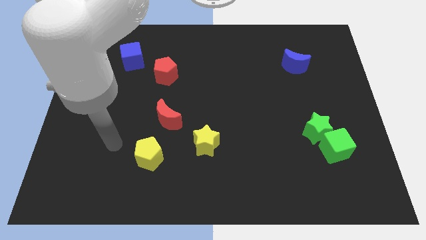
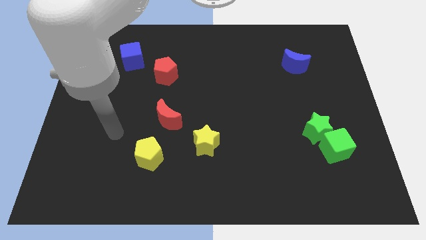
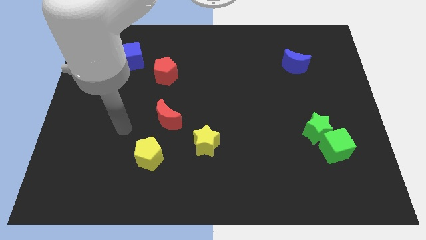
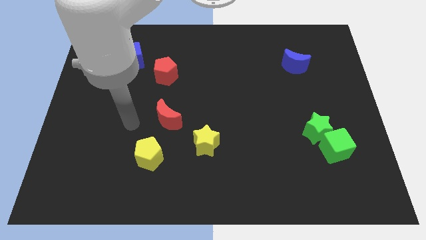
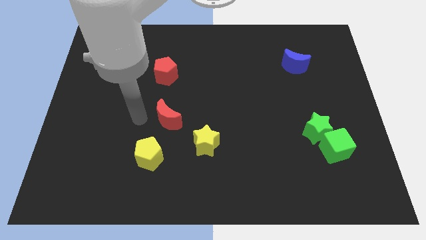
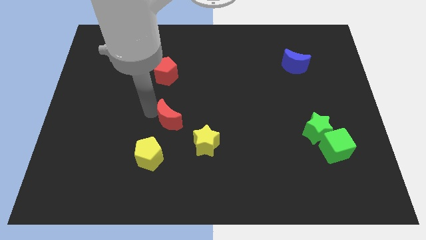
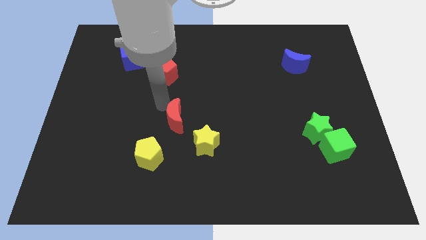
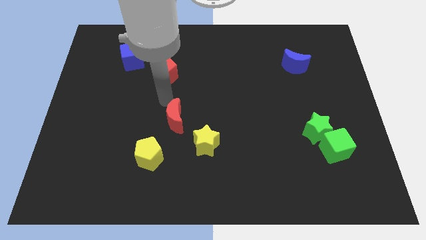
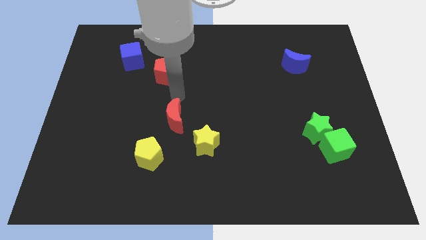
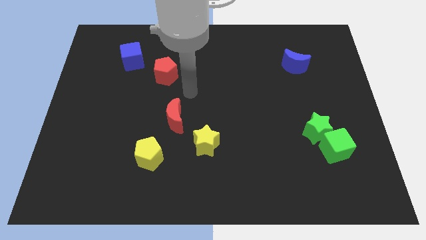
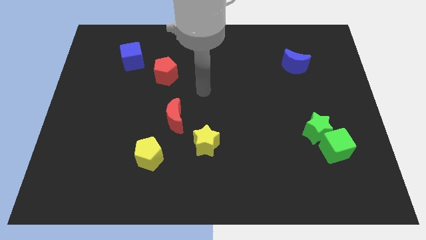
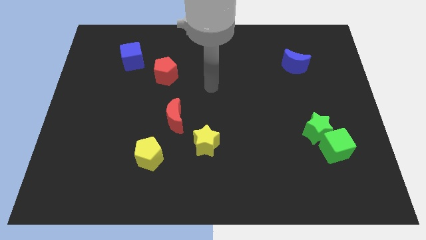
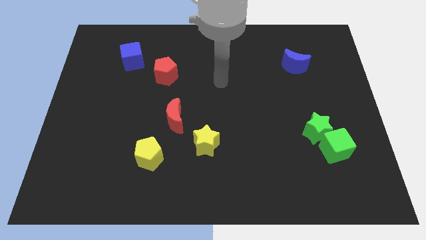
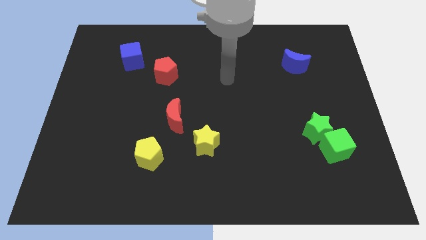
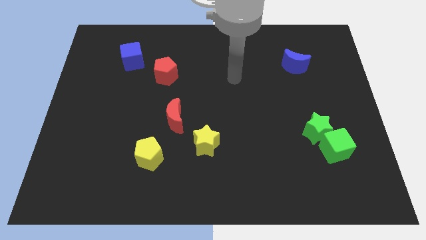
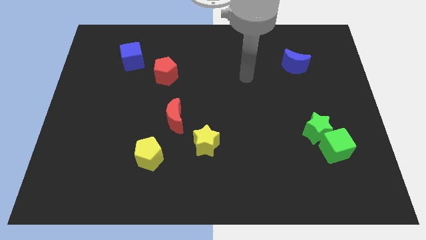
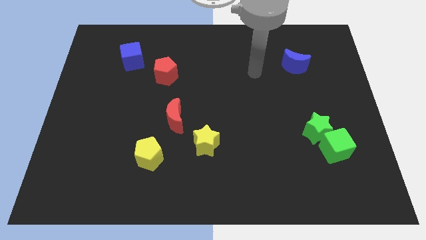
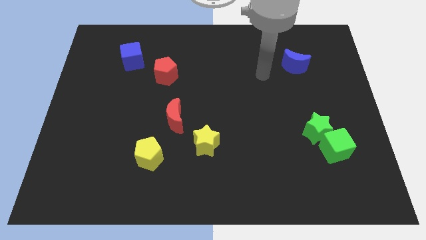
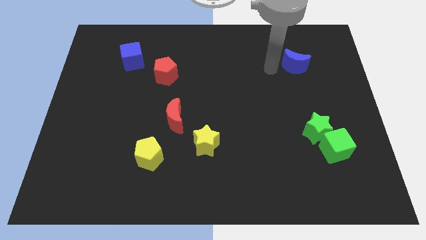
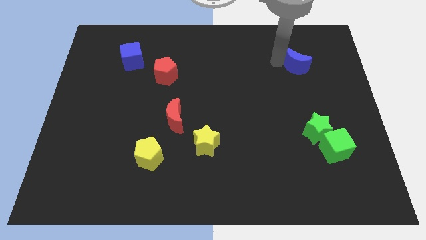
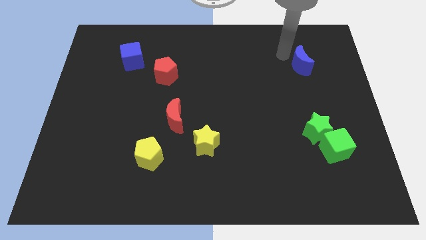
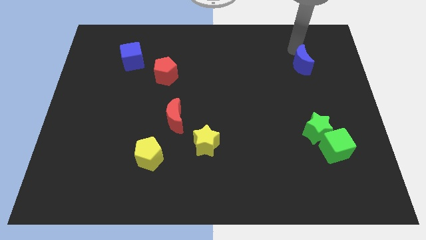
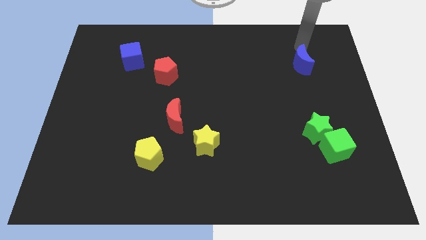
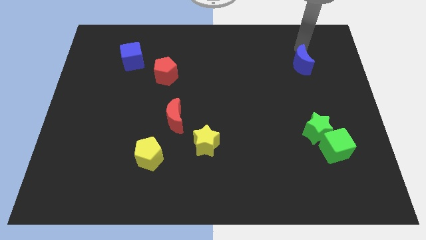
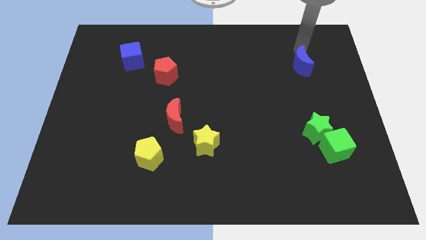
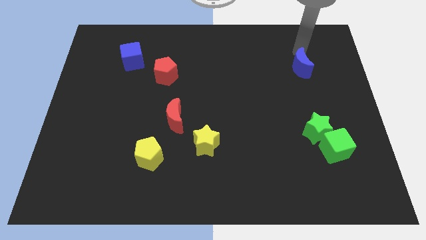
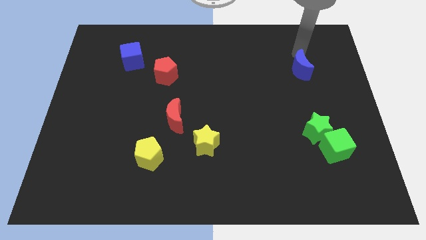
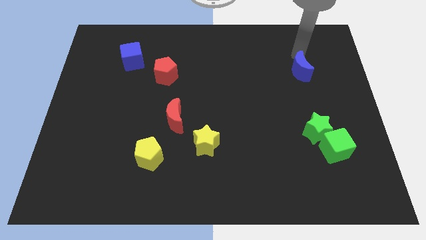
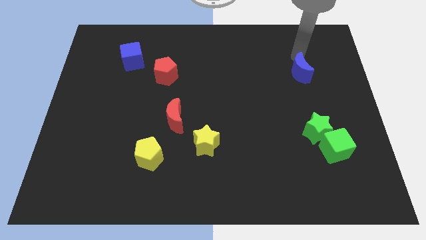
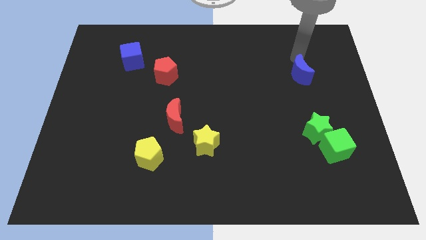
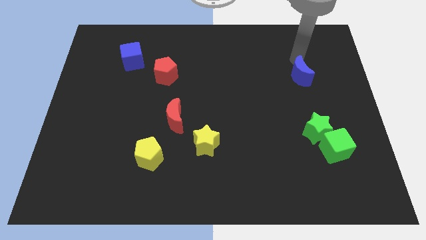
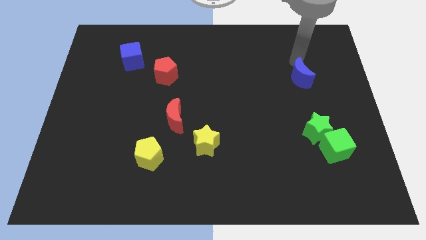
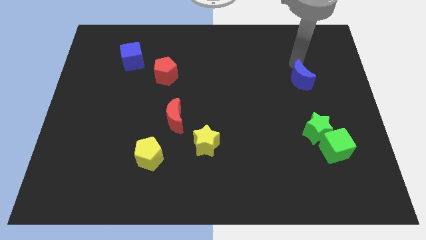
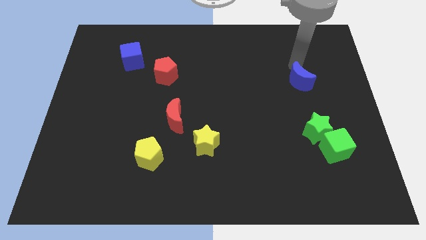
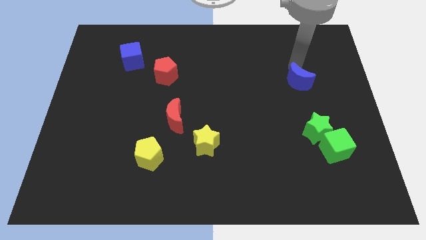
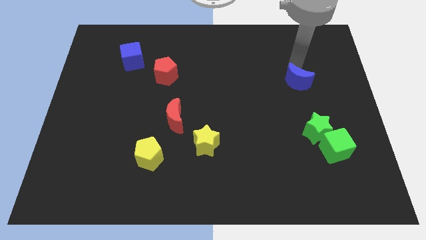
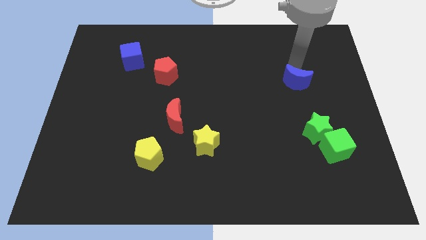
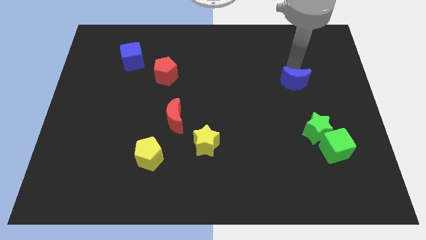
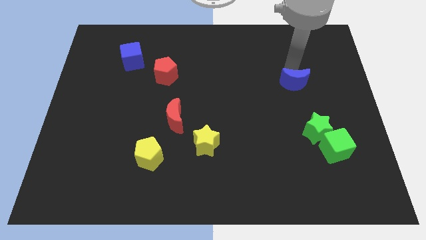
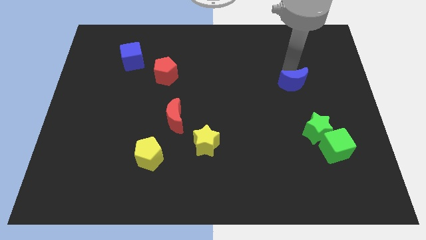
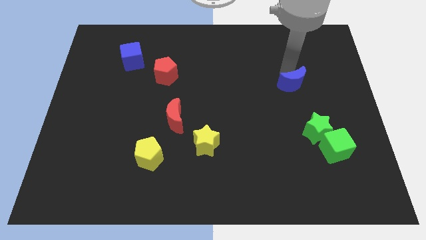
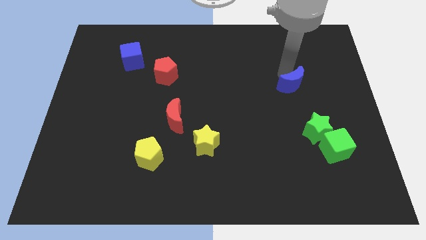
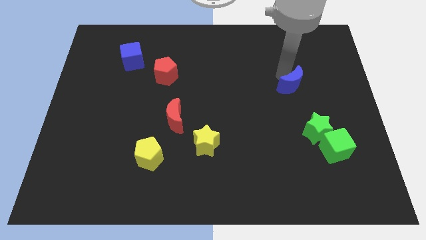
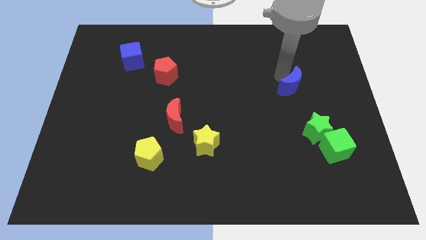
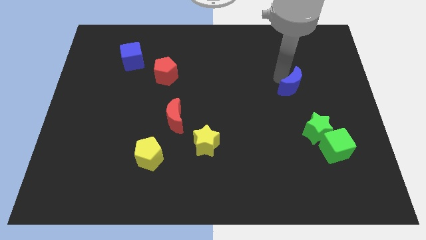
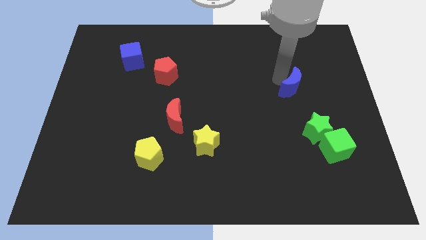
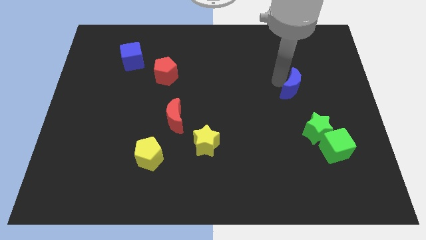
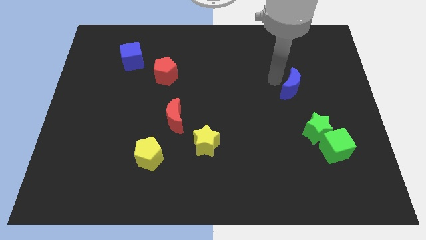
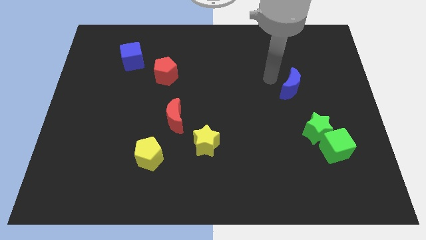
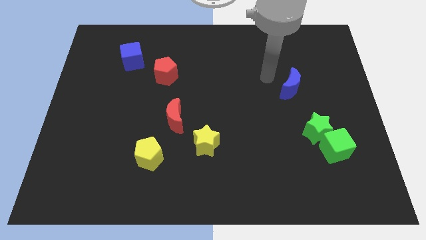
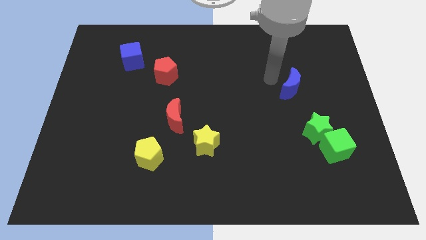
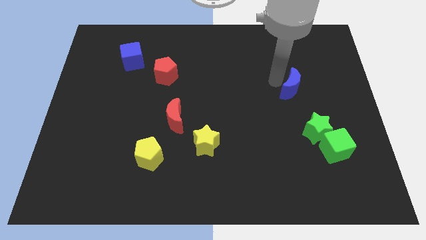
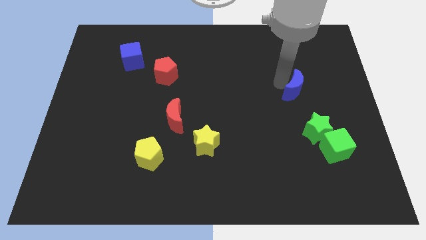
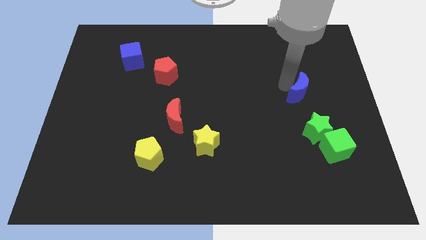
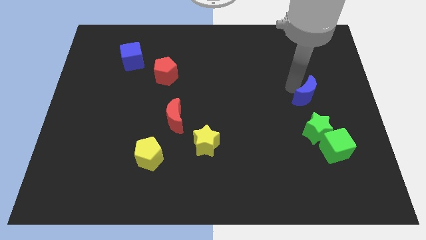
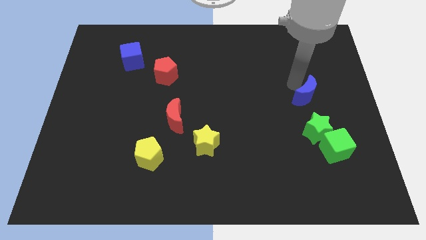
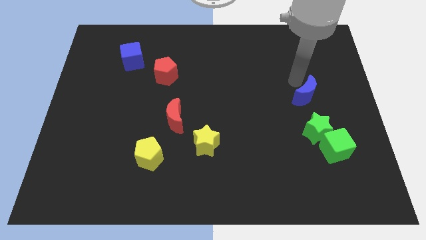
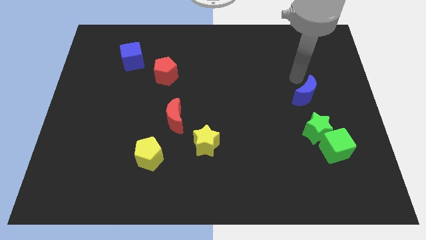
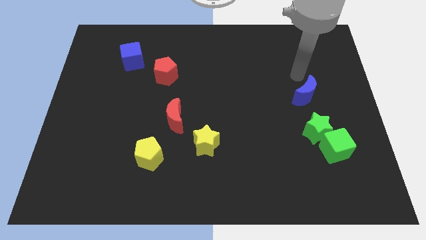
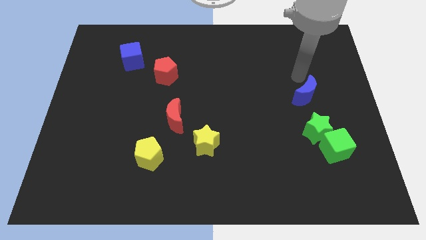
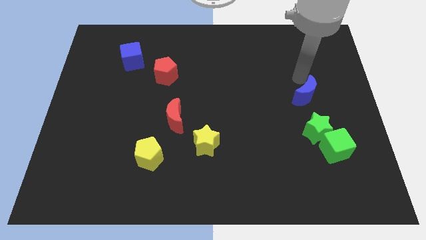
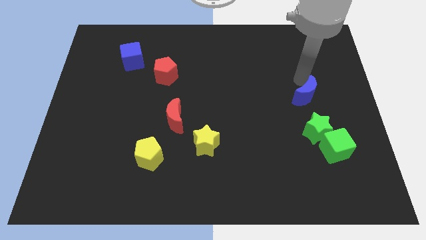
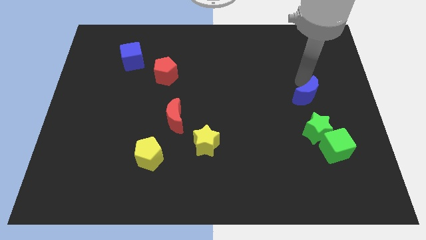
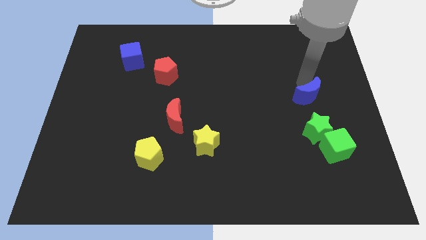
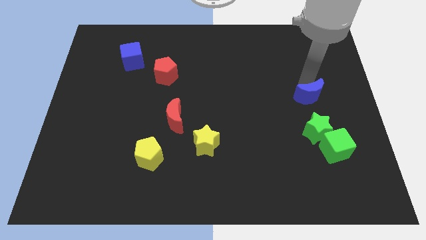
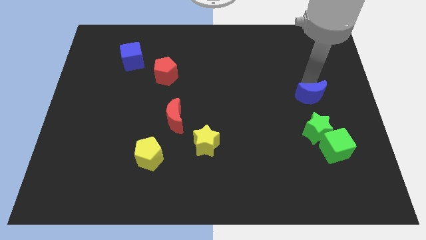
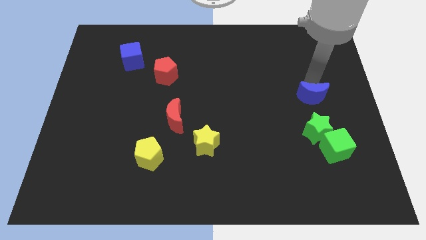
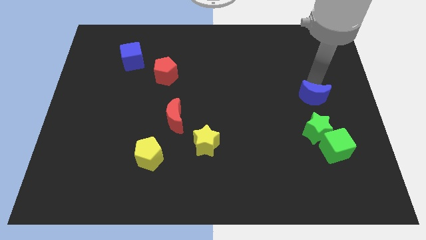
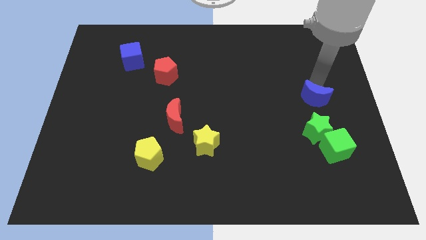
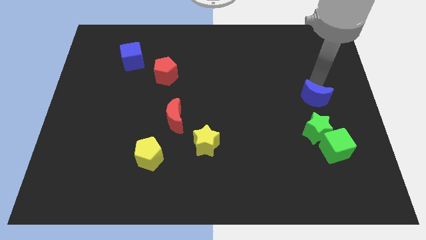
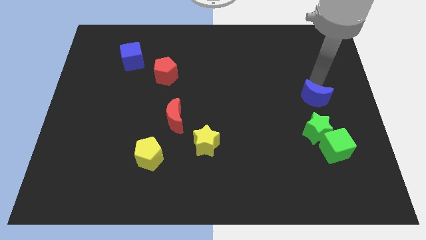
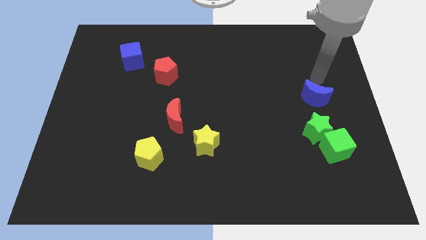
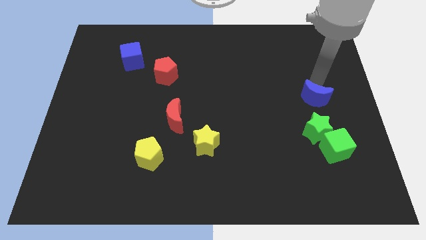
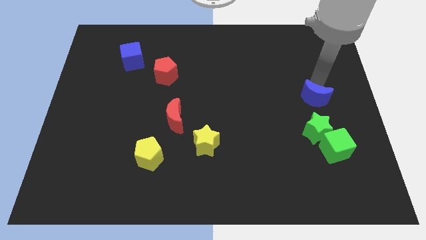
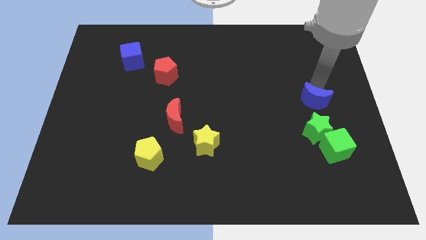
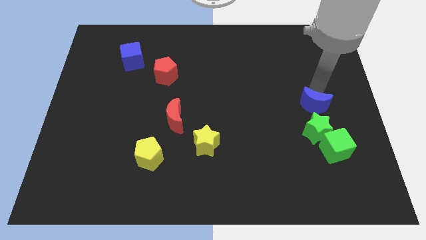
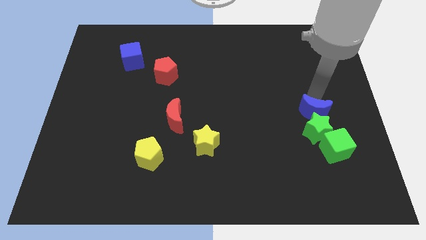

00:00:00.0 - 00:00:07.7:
move the blue moon towards the green star
